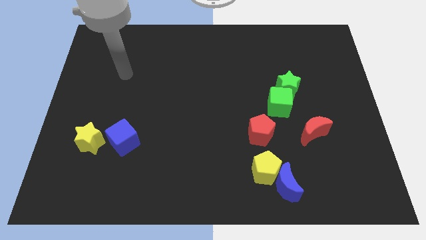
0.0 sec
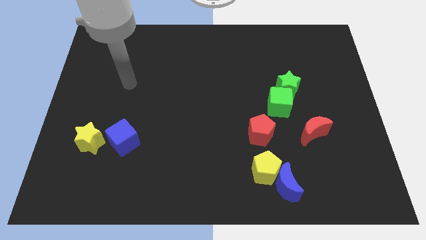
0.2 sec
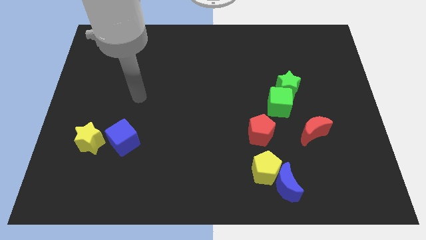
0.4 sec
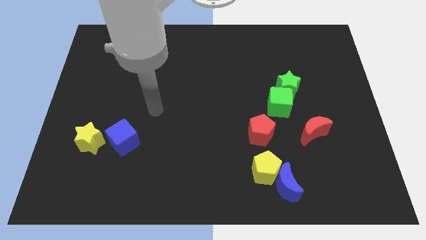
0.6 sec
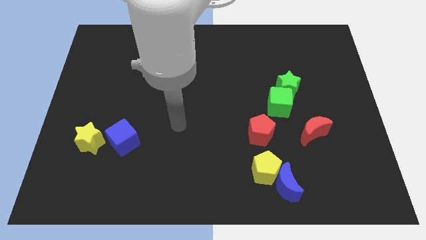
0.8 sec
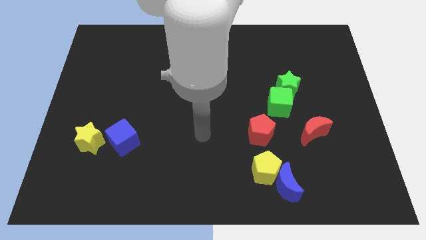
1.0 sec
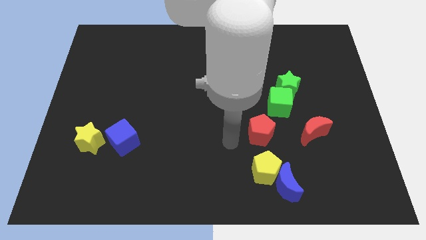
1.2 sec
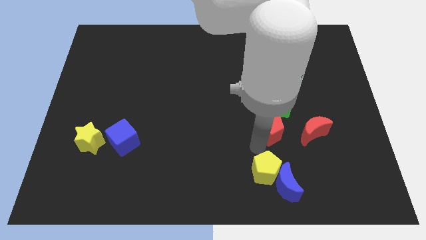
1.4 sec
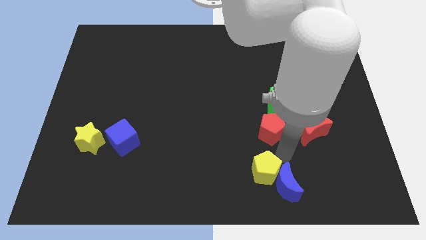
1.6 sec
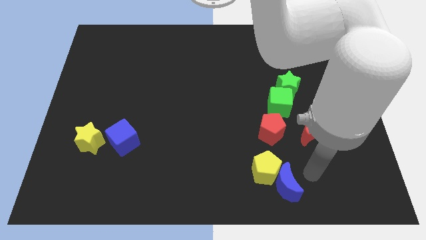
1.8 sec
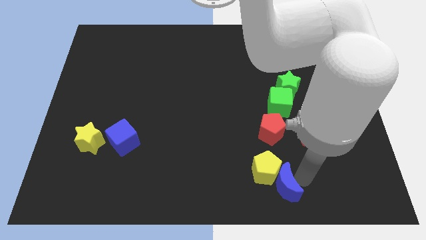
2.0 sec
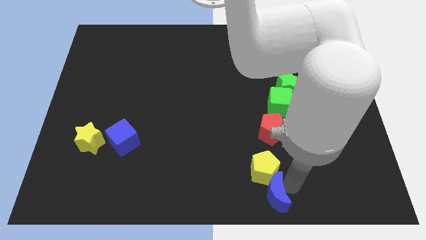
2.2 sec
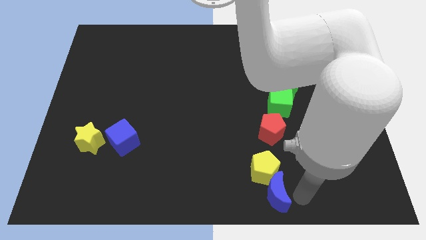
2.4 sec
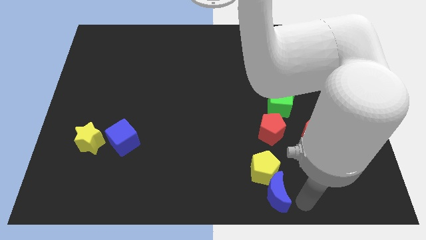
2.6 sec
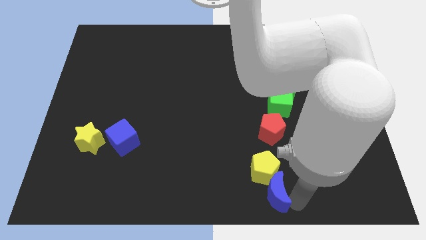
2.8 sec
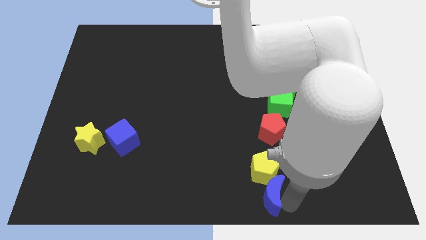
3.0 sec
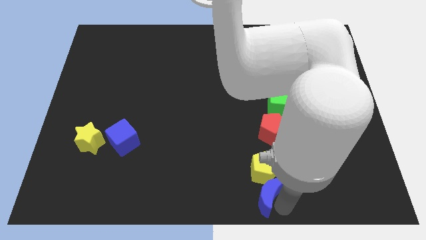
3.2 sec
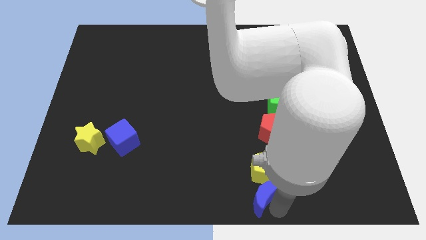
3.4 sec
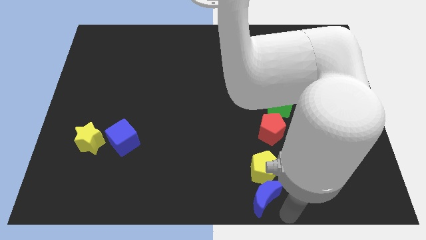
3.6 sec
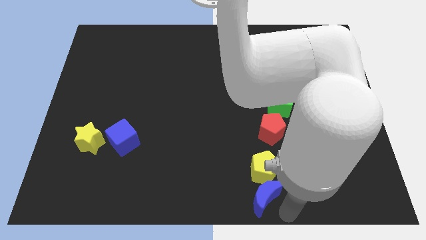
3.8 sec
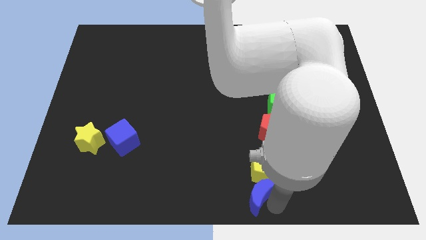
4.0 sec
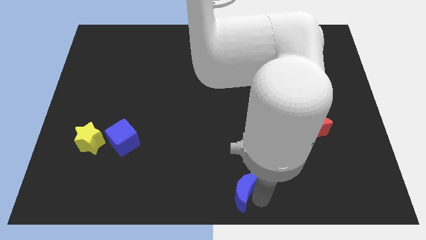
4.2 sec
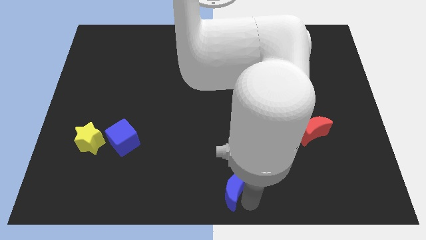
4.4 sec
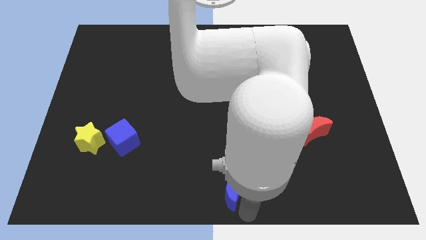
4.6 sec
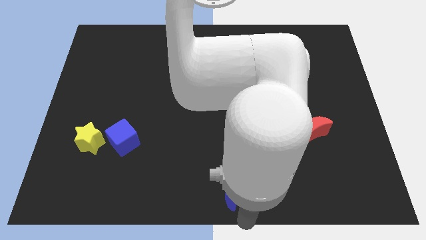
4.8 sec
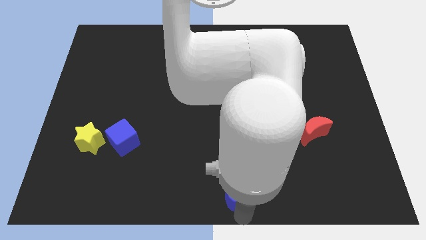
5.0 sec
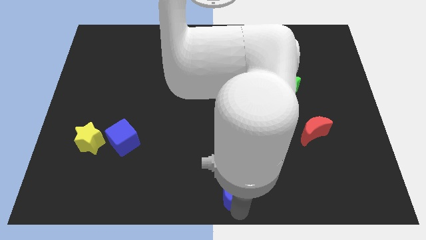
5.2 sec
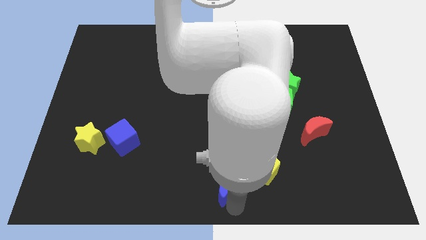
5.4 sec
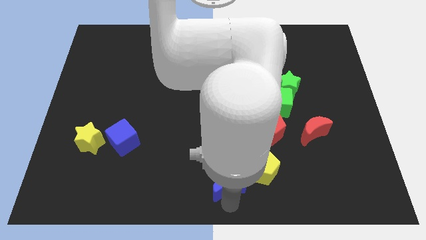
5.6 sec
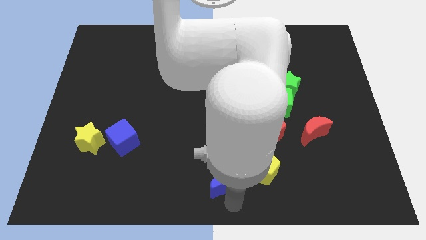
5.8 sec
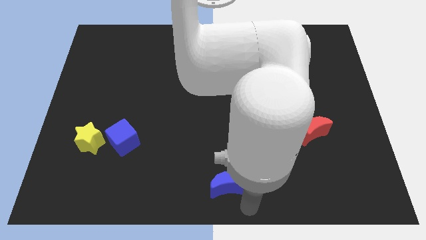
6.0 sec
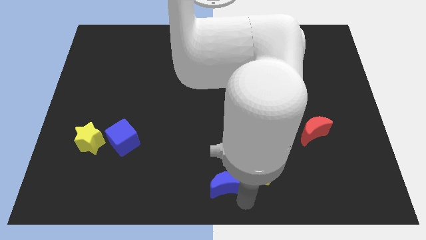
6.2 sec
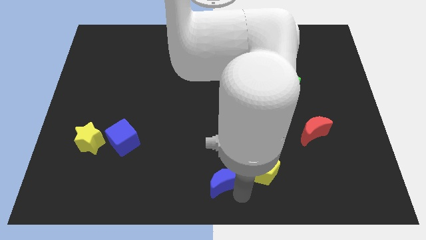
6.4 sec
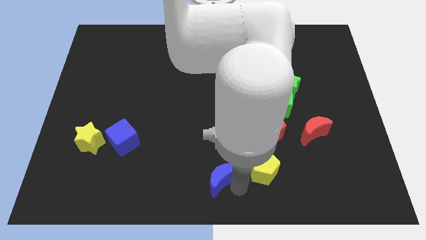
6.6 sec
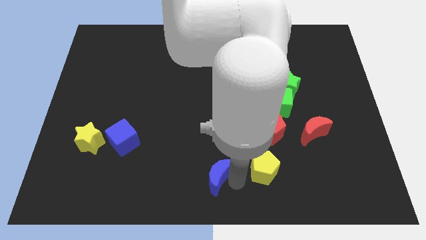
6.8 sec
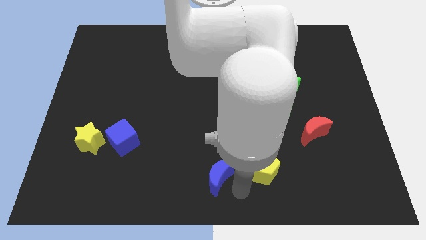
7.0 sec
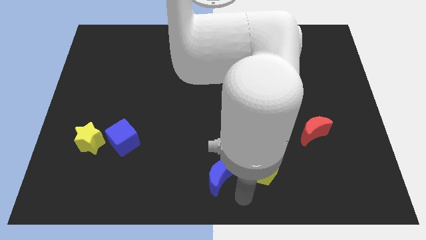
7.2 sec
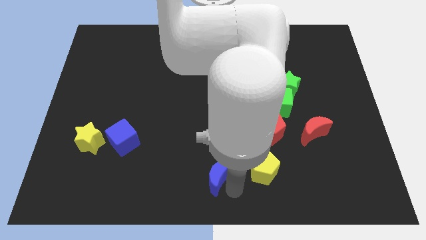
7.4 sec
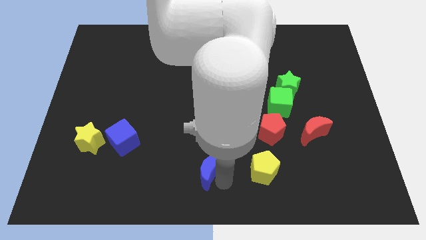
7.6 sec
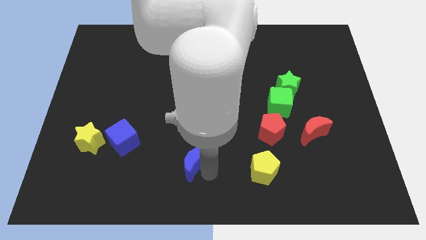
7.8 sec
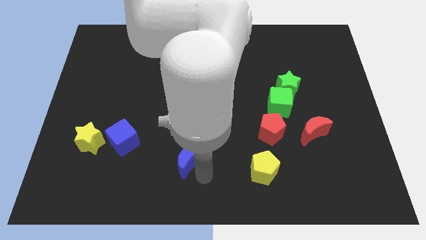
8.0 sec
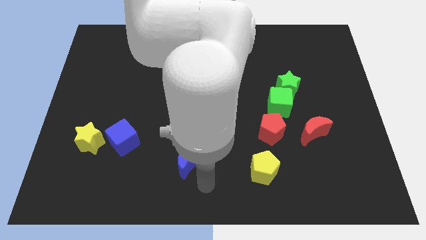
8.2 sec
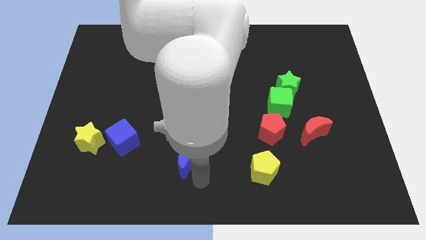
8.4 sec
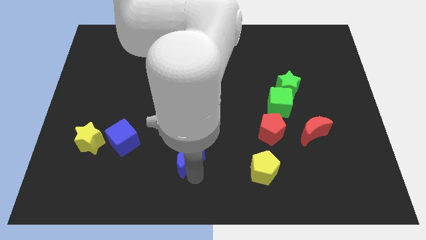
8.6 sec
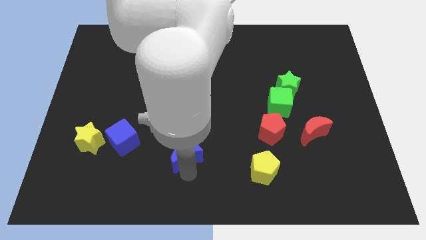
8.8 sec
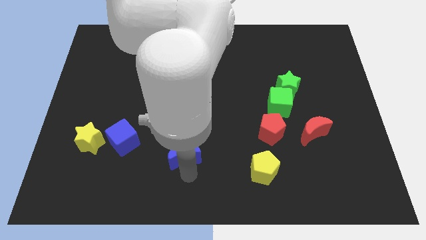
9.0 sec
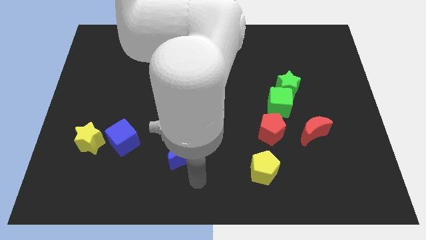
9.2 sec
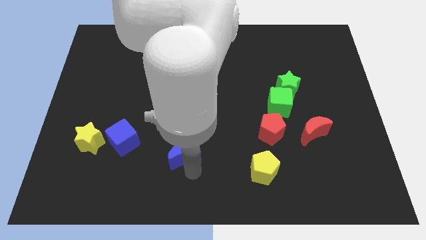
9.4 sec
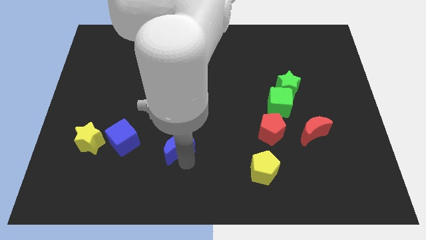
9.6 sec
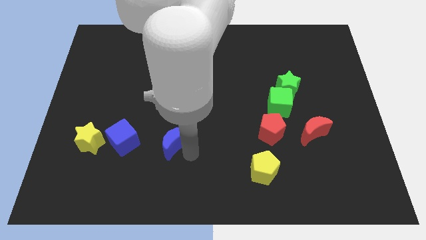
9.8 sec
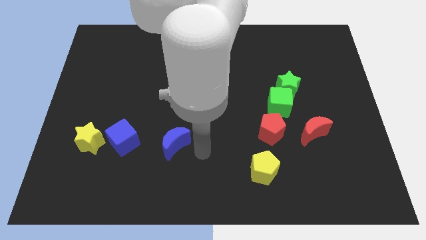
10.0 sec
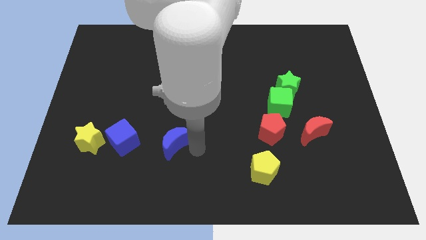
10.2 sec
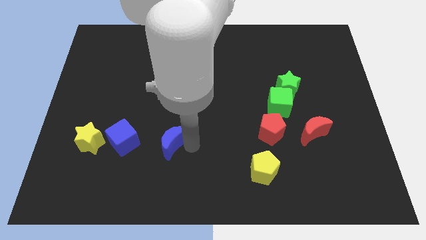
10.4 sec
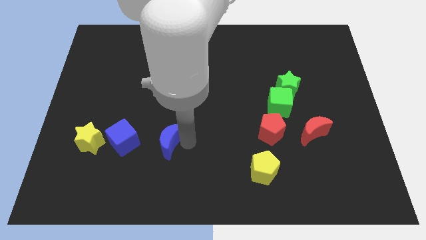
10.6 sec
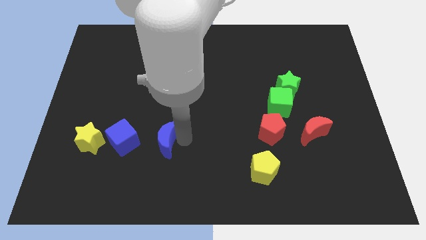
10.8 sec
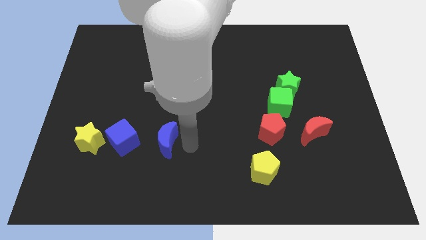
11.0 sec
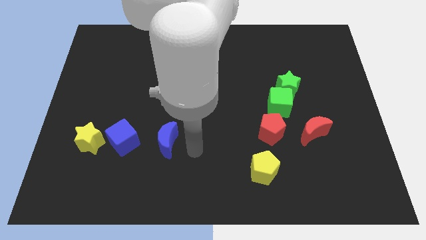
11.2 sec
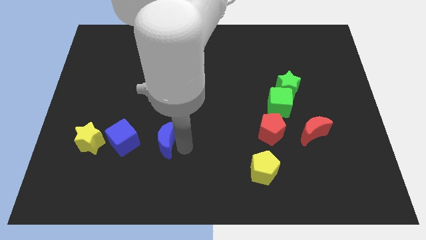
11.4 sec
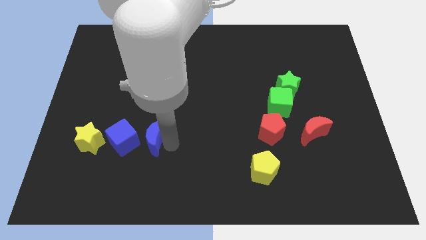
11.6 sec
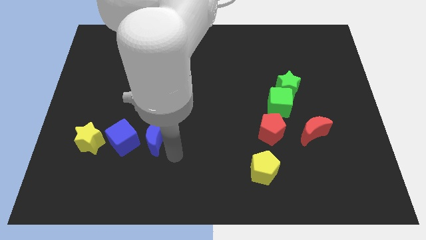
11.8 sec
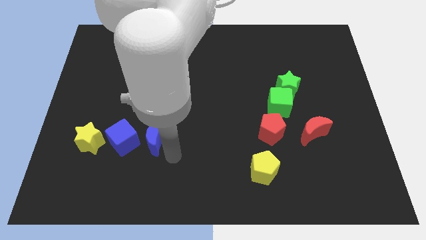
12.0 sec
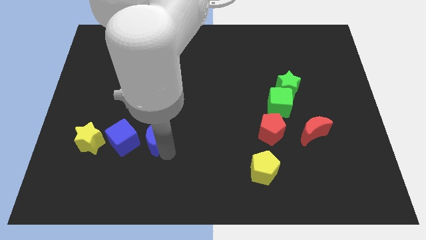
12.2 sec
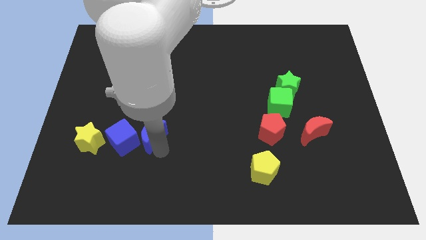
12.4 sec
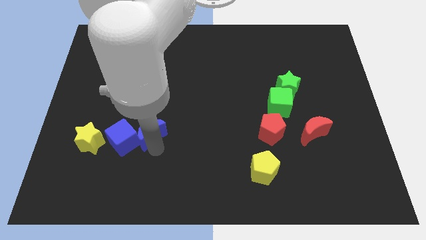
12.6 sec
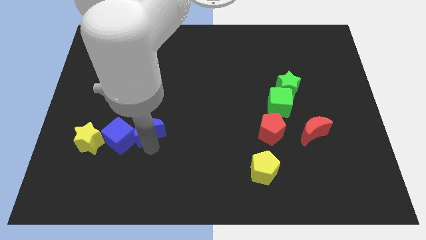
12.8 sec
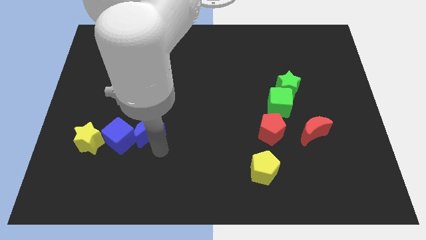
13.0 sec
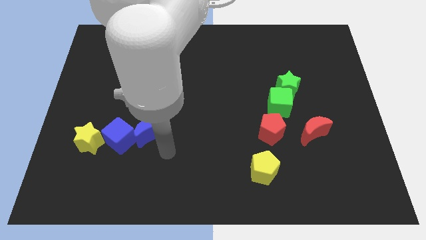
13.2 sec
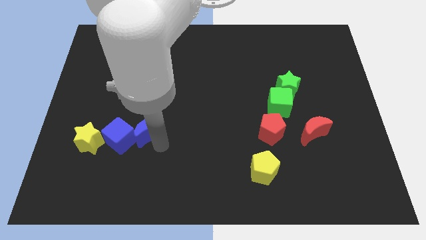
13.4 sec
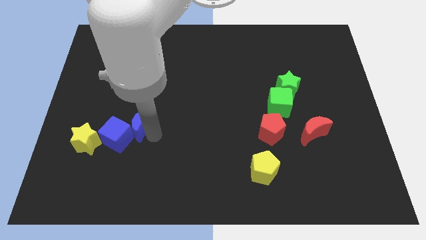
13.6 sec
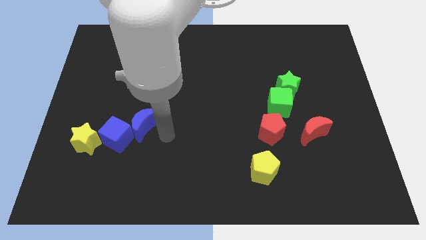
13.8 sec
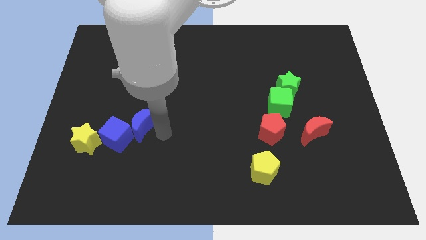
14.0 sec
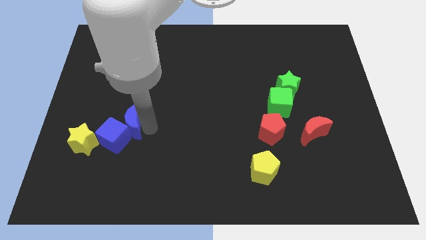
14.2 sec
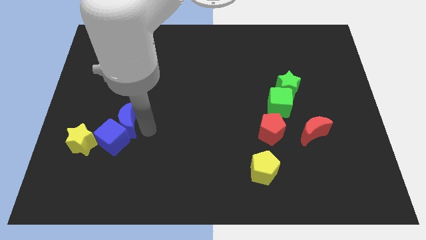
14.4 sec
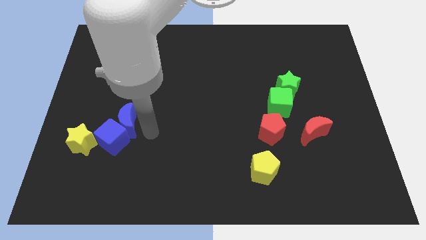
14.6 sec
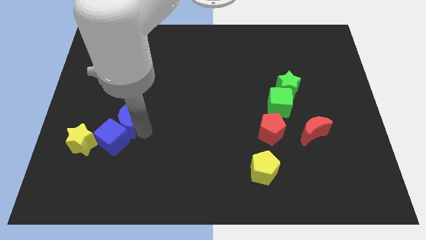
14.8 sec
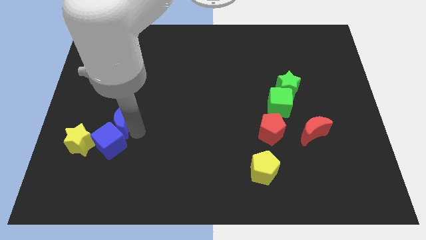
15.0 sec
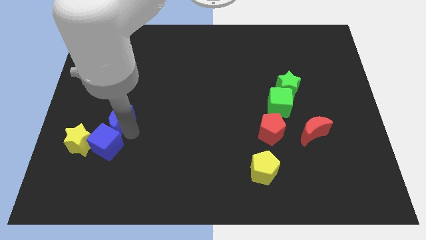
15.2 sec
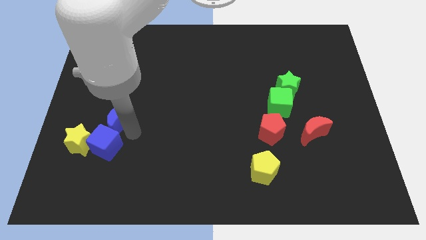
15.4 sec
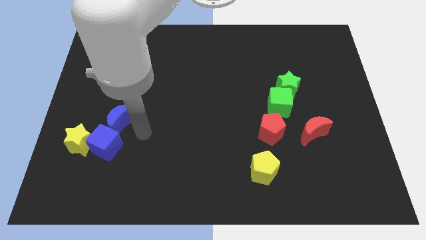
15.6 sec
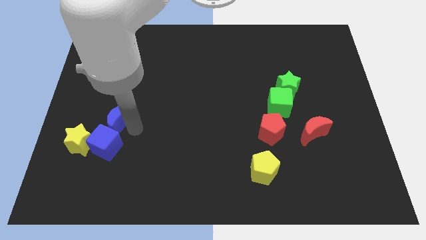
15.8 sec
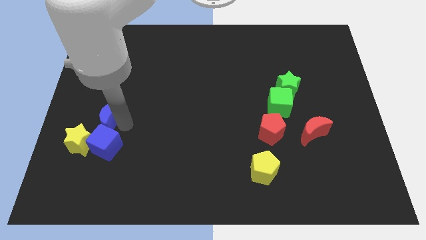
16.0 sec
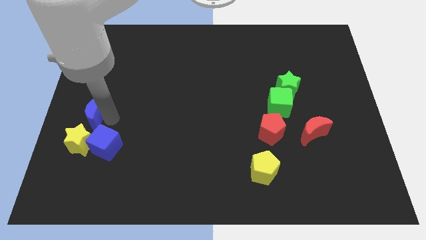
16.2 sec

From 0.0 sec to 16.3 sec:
move the blue moon to the center left
